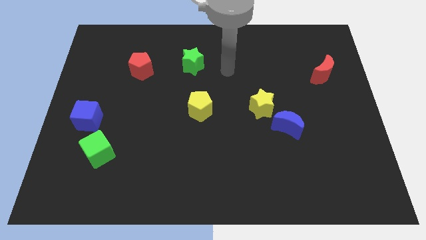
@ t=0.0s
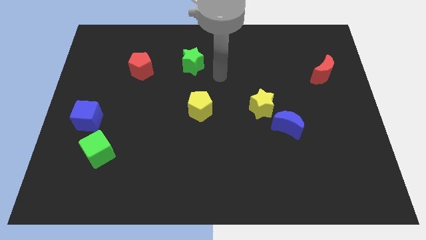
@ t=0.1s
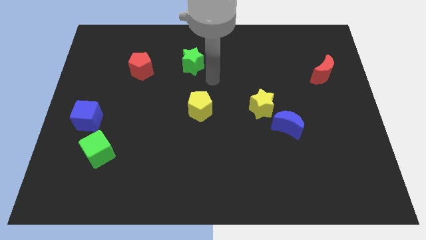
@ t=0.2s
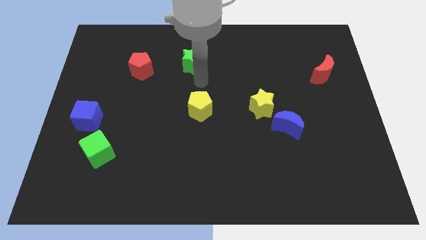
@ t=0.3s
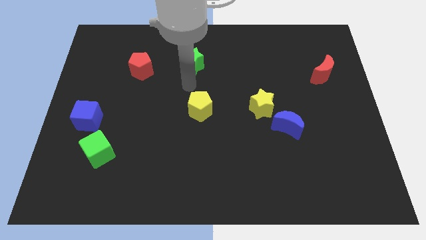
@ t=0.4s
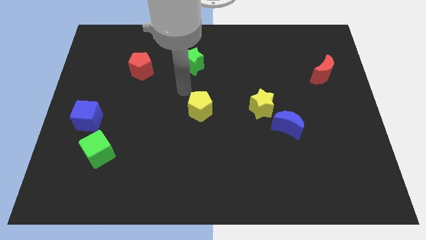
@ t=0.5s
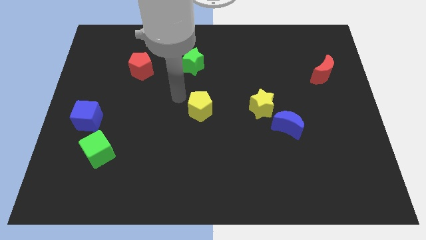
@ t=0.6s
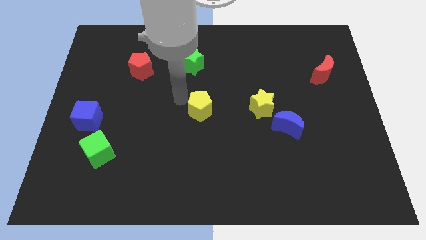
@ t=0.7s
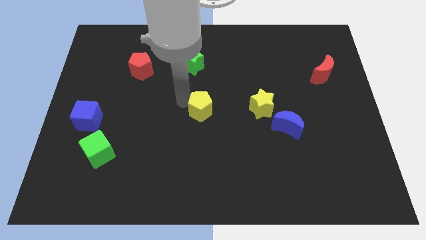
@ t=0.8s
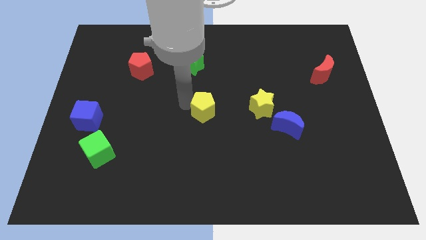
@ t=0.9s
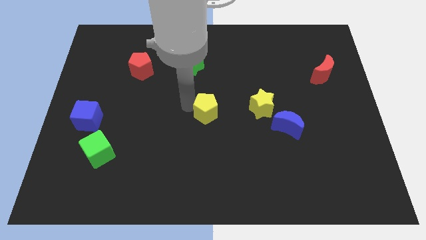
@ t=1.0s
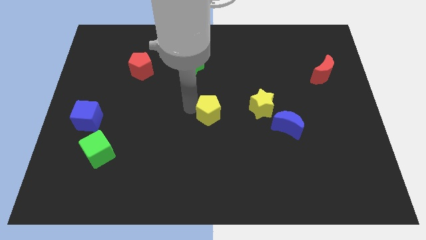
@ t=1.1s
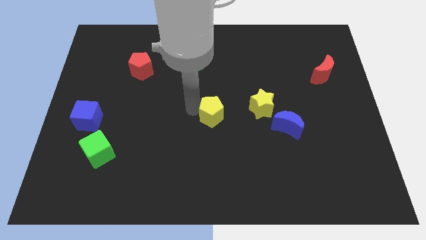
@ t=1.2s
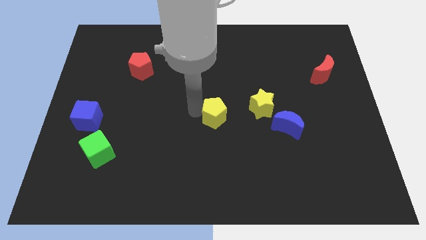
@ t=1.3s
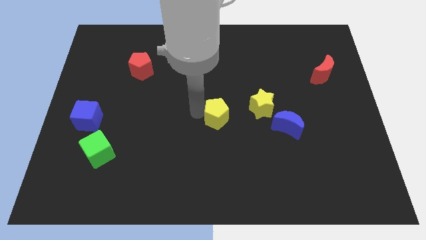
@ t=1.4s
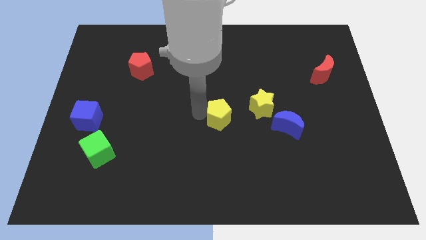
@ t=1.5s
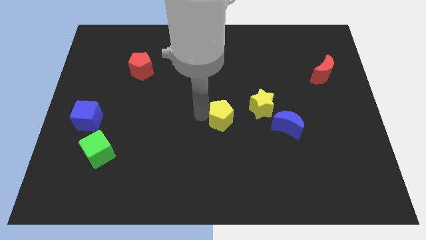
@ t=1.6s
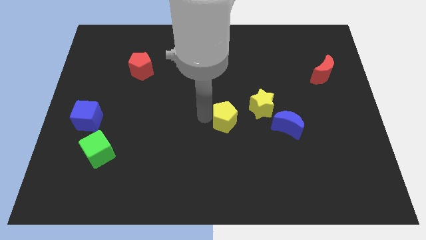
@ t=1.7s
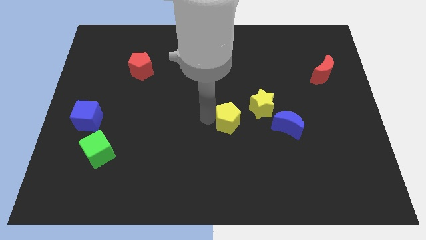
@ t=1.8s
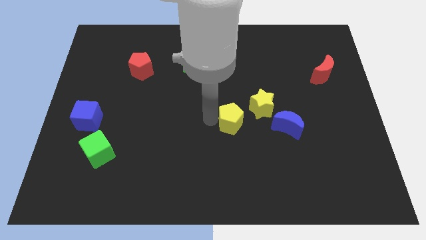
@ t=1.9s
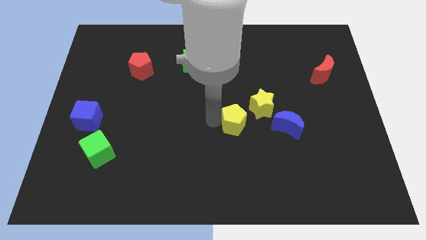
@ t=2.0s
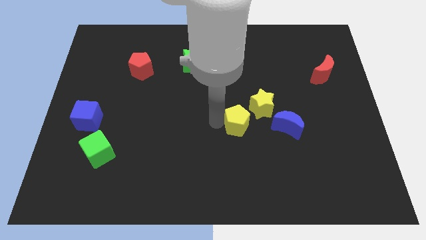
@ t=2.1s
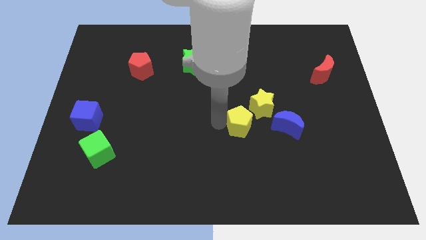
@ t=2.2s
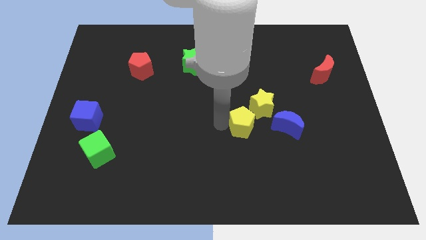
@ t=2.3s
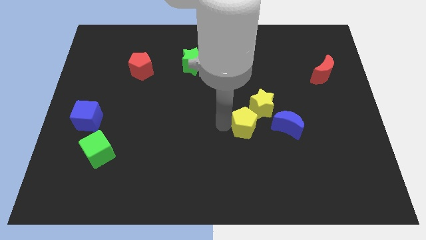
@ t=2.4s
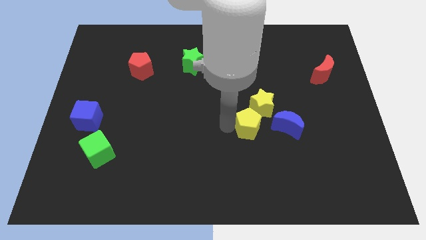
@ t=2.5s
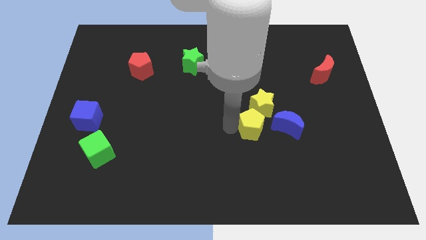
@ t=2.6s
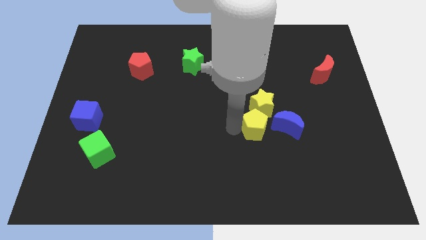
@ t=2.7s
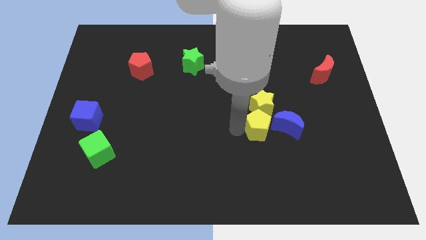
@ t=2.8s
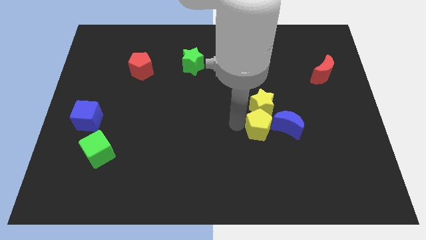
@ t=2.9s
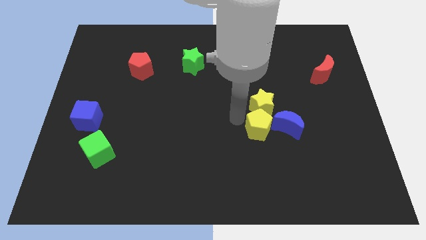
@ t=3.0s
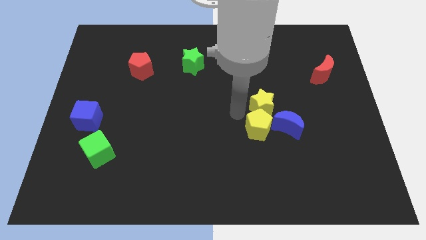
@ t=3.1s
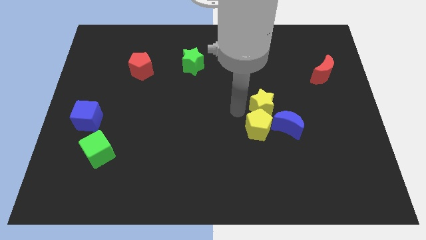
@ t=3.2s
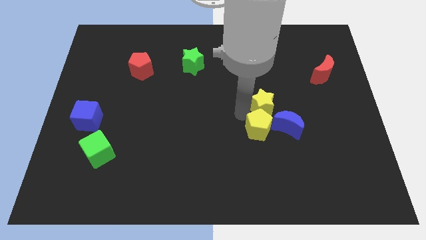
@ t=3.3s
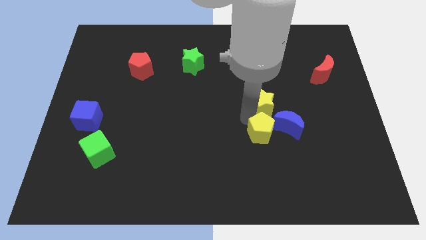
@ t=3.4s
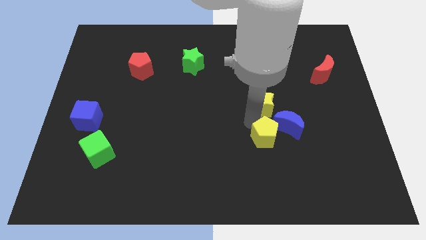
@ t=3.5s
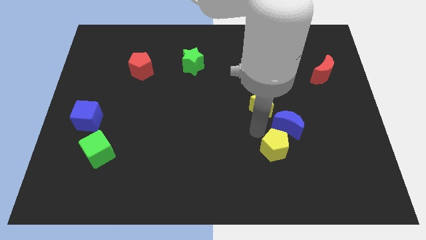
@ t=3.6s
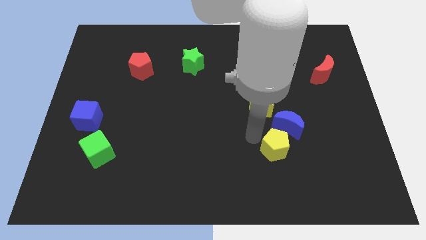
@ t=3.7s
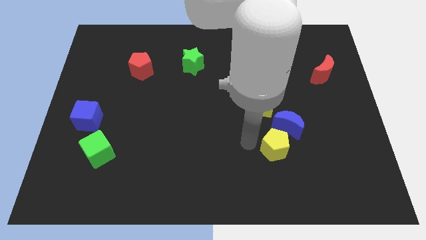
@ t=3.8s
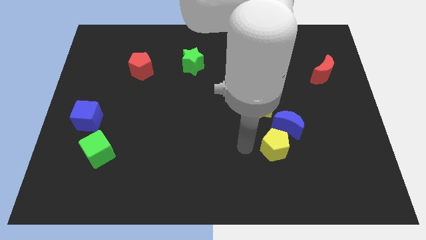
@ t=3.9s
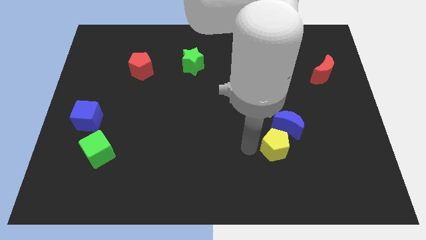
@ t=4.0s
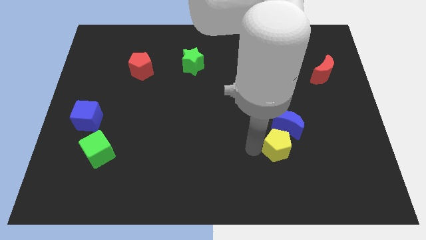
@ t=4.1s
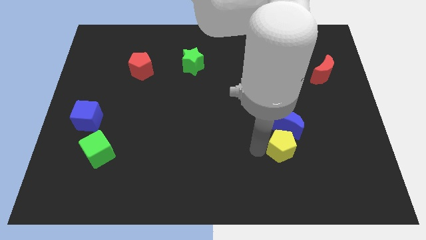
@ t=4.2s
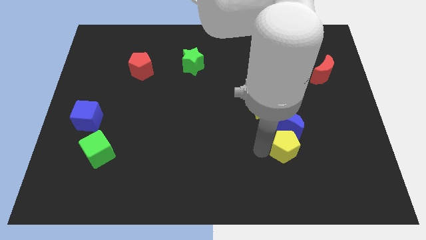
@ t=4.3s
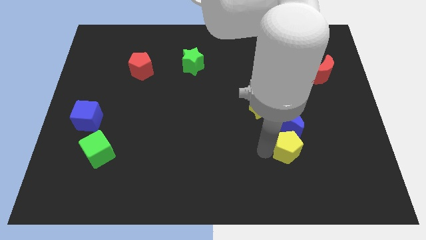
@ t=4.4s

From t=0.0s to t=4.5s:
move the yellow pentagon to the bottom right of the blue moon

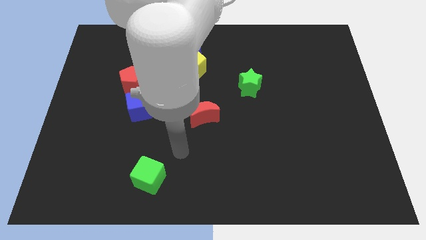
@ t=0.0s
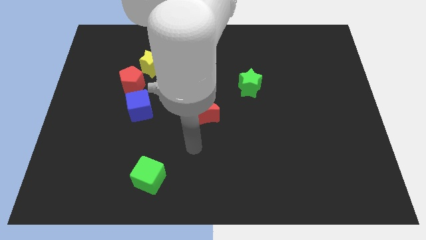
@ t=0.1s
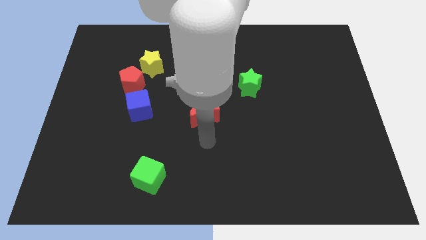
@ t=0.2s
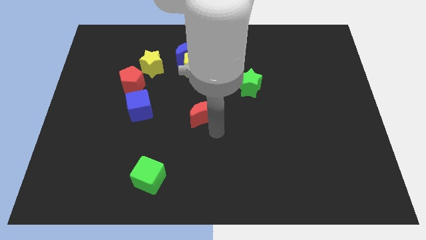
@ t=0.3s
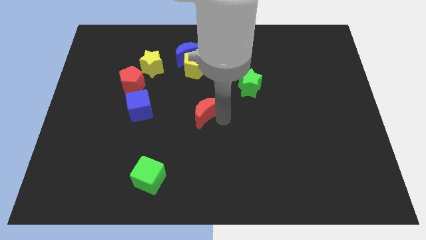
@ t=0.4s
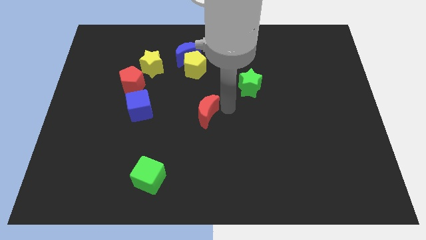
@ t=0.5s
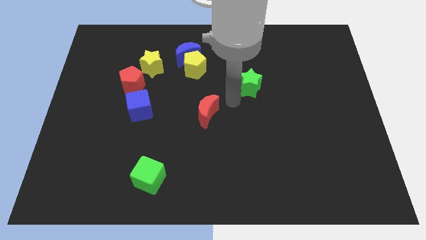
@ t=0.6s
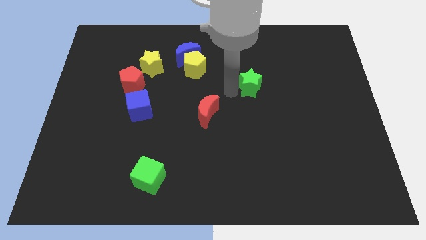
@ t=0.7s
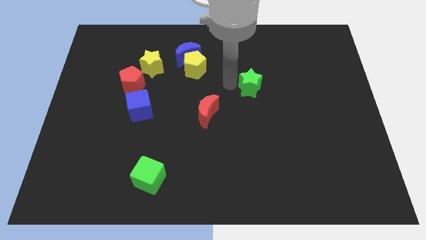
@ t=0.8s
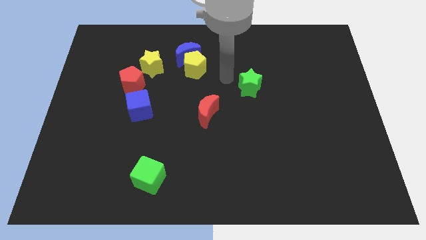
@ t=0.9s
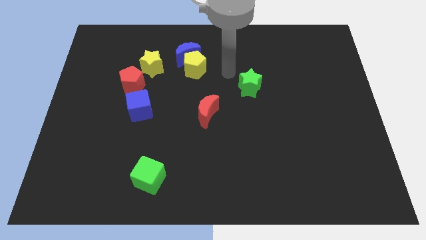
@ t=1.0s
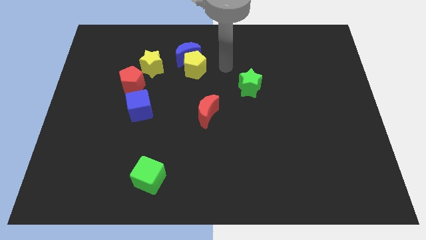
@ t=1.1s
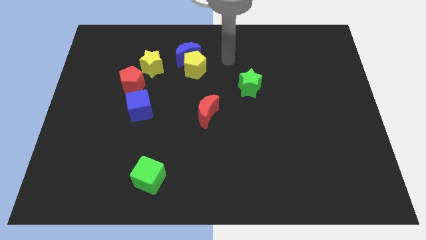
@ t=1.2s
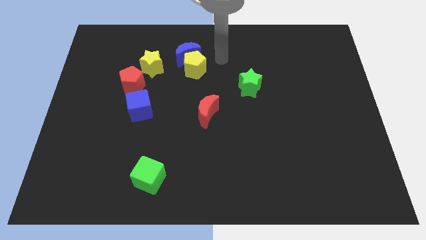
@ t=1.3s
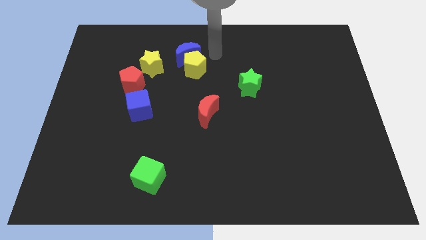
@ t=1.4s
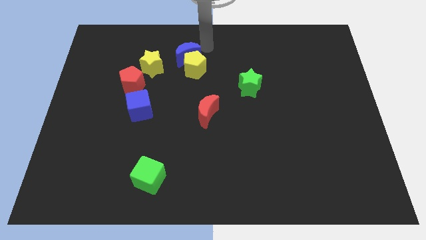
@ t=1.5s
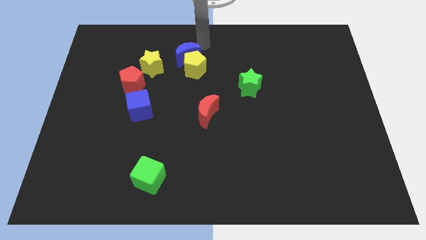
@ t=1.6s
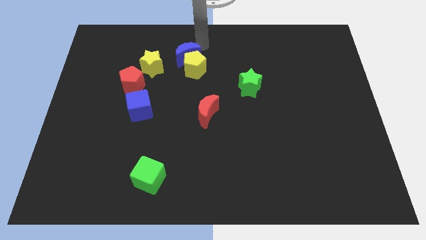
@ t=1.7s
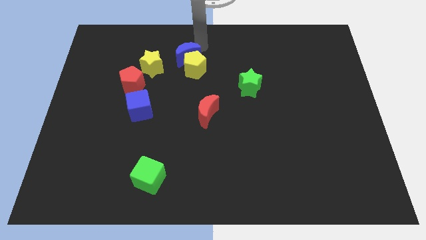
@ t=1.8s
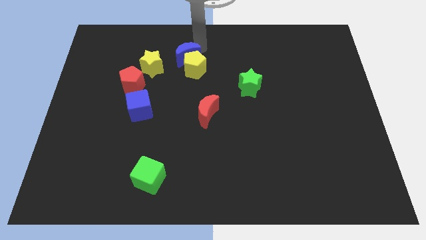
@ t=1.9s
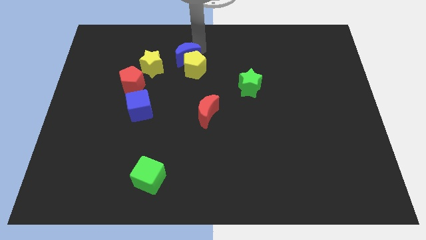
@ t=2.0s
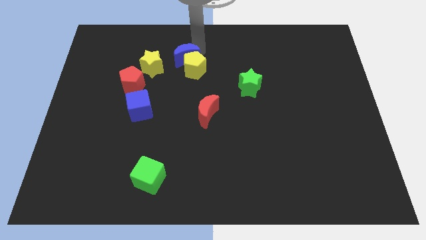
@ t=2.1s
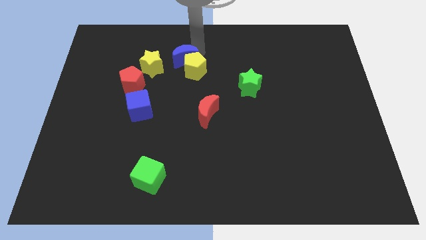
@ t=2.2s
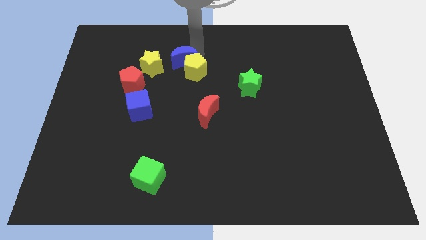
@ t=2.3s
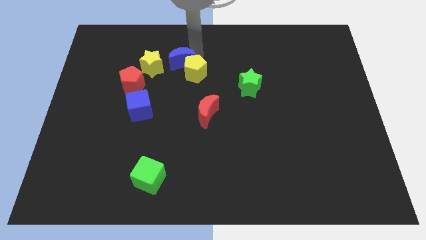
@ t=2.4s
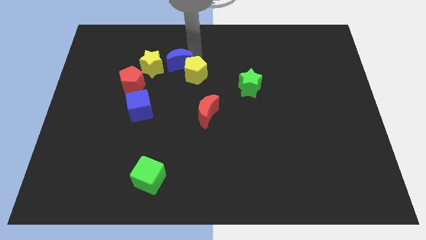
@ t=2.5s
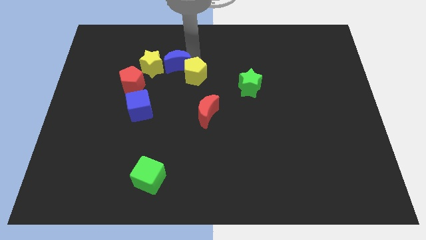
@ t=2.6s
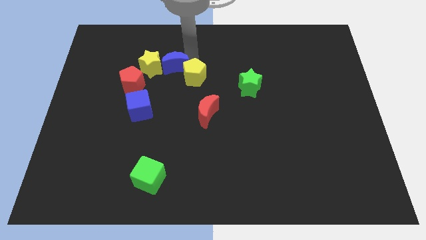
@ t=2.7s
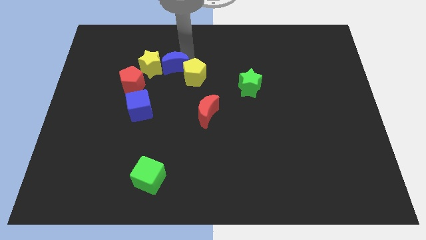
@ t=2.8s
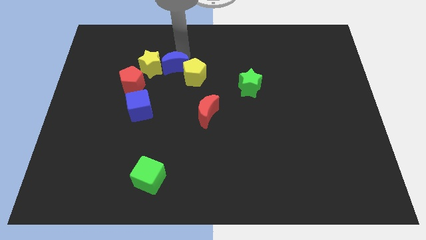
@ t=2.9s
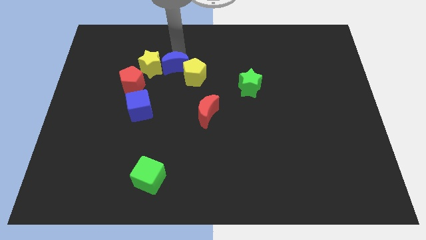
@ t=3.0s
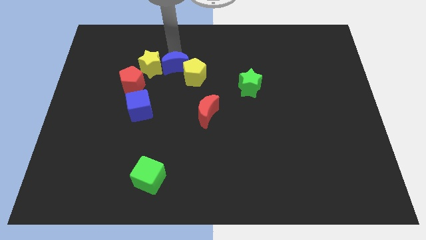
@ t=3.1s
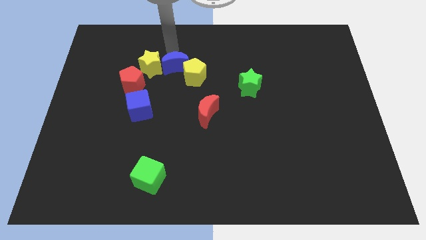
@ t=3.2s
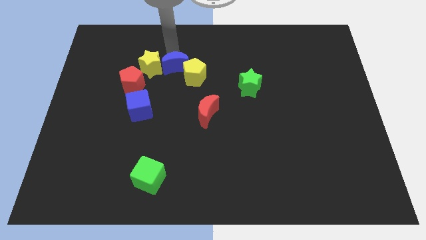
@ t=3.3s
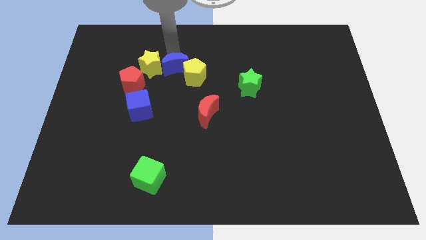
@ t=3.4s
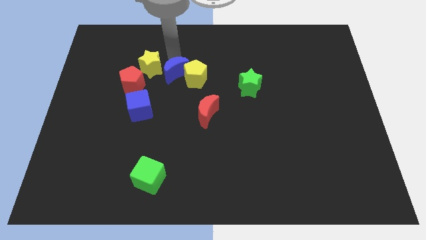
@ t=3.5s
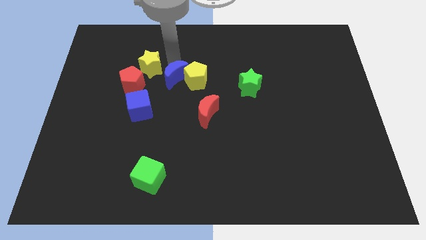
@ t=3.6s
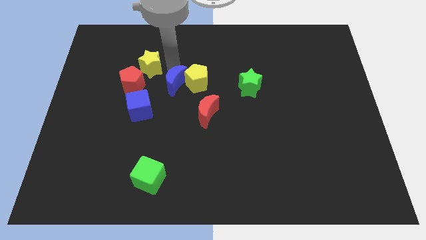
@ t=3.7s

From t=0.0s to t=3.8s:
push the blue moon to the top left side of the red moon
